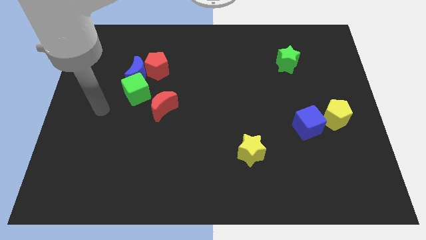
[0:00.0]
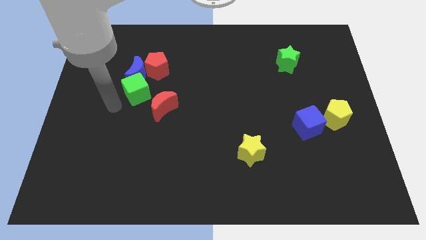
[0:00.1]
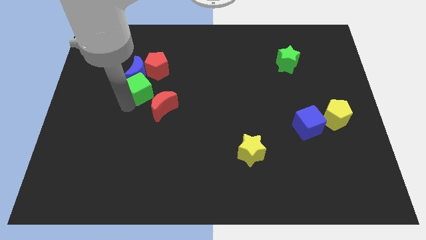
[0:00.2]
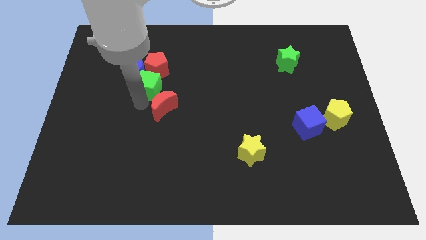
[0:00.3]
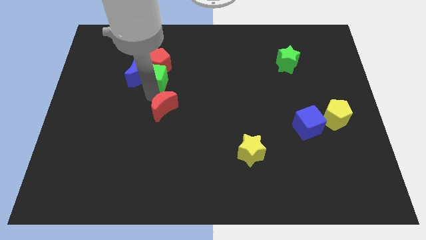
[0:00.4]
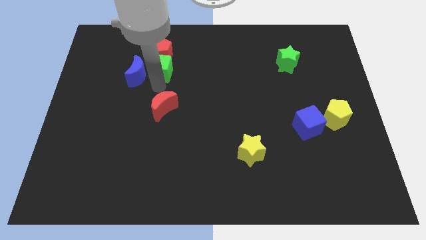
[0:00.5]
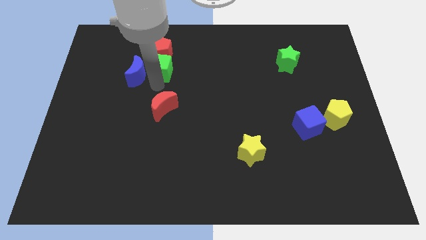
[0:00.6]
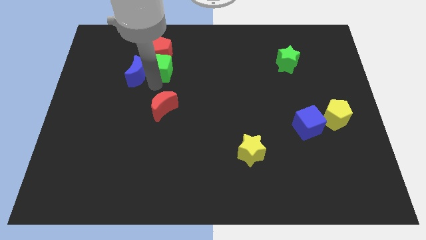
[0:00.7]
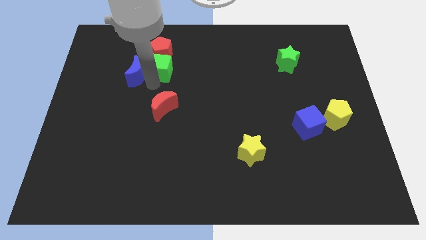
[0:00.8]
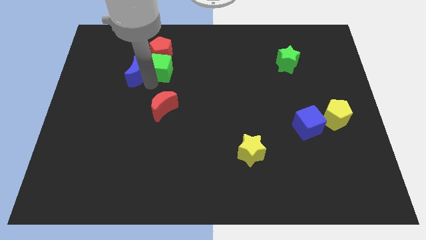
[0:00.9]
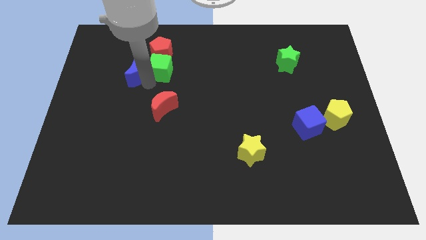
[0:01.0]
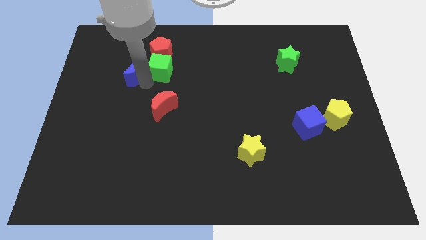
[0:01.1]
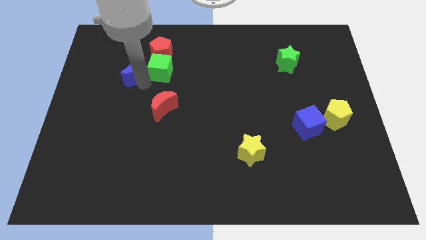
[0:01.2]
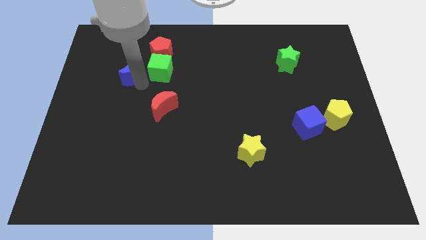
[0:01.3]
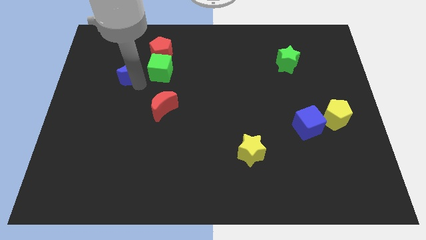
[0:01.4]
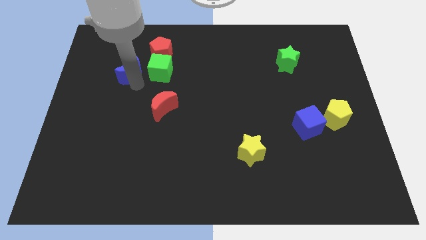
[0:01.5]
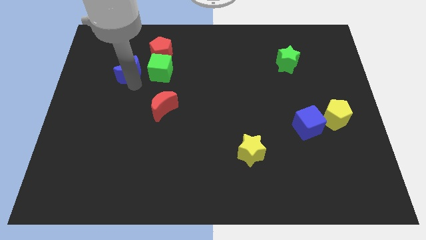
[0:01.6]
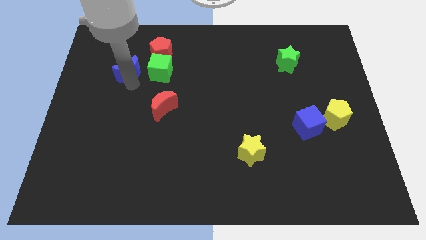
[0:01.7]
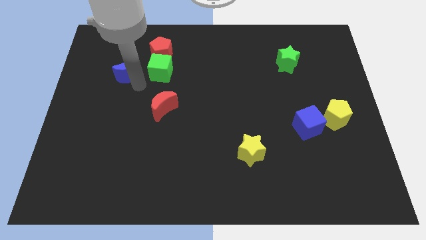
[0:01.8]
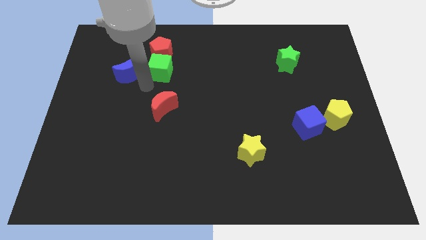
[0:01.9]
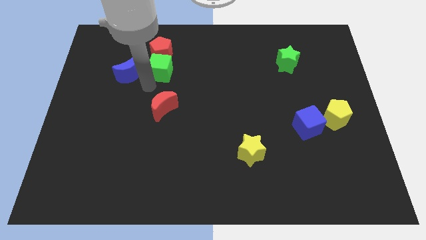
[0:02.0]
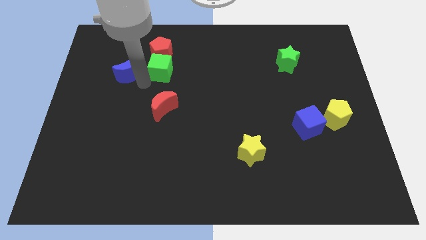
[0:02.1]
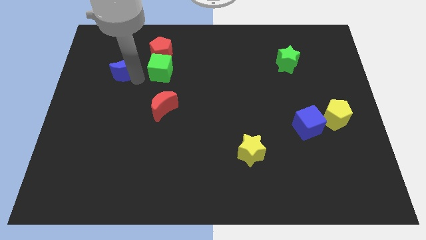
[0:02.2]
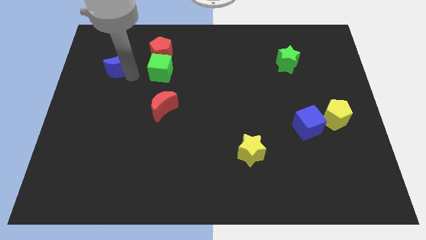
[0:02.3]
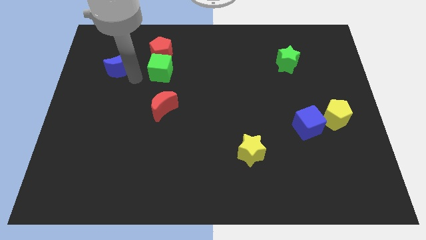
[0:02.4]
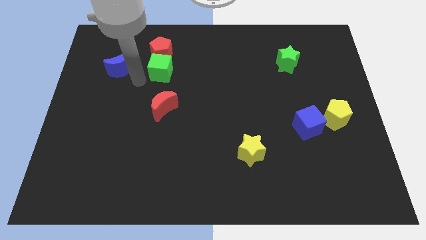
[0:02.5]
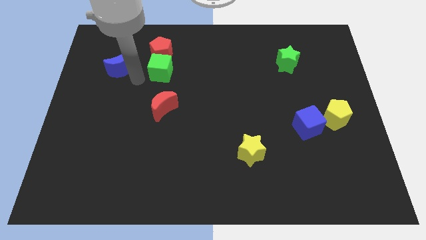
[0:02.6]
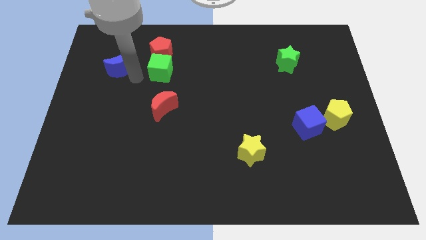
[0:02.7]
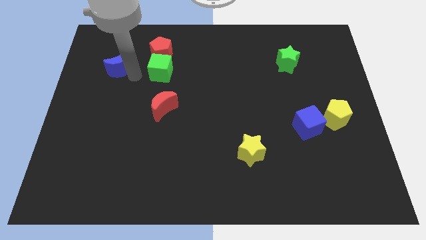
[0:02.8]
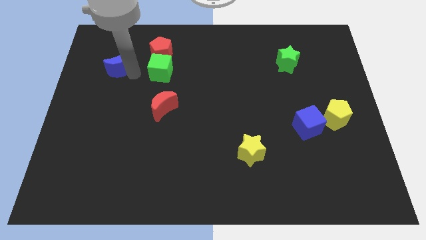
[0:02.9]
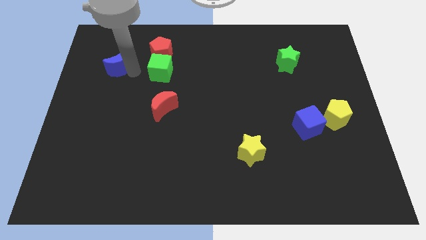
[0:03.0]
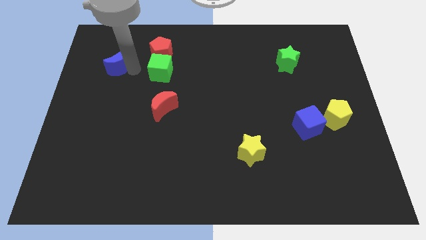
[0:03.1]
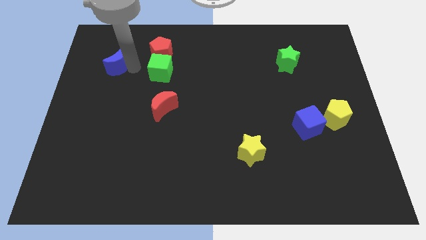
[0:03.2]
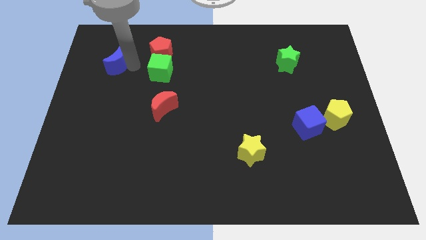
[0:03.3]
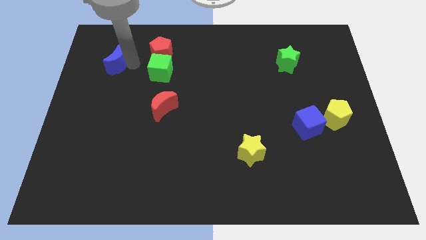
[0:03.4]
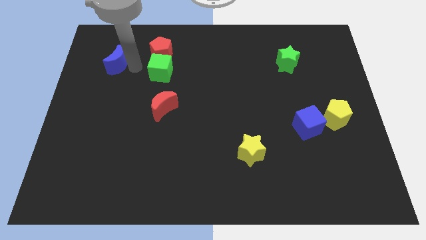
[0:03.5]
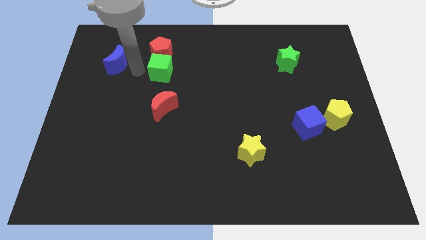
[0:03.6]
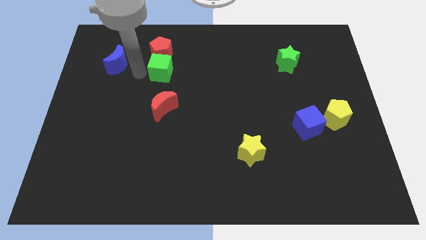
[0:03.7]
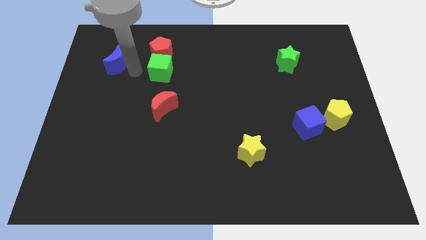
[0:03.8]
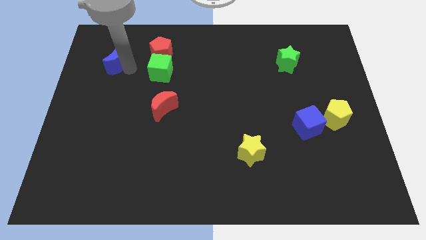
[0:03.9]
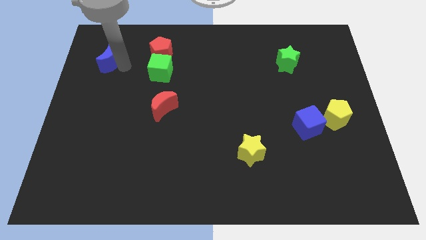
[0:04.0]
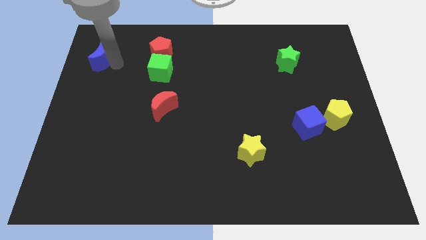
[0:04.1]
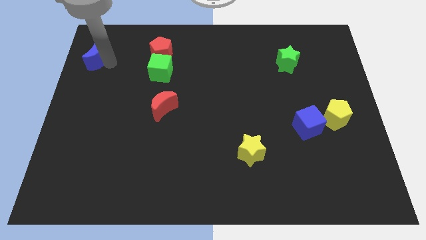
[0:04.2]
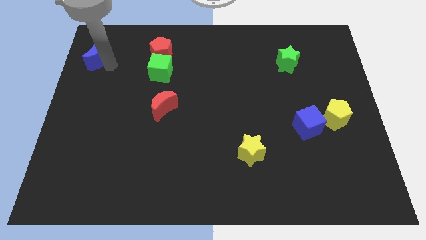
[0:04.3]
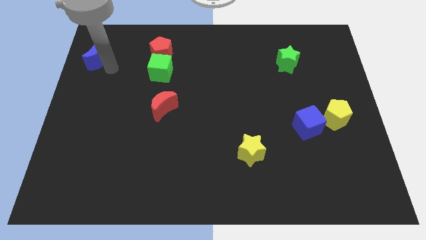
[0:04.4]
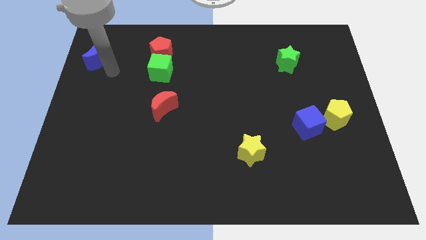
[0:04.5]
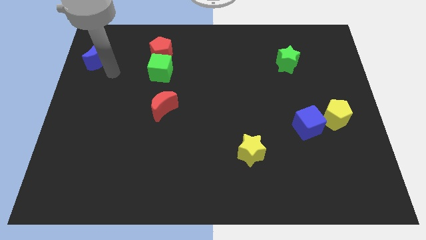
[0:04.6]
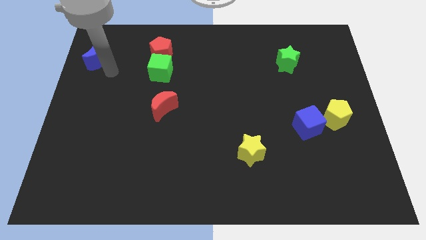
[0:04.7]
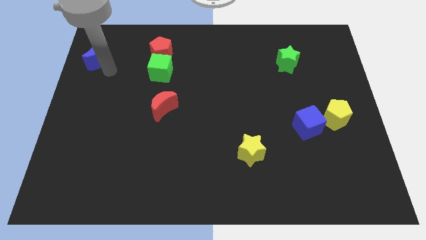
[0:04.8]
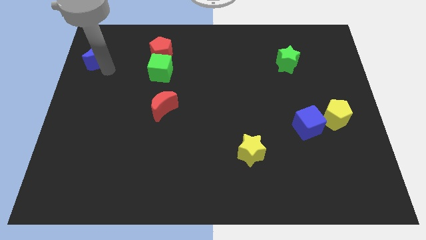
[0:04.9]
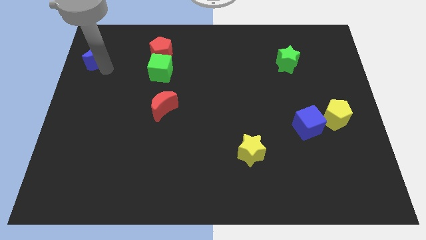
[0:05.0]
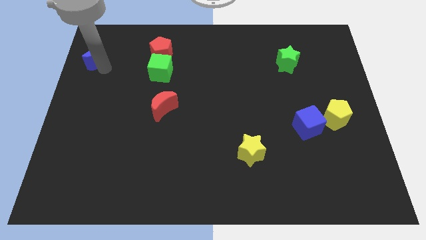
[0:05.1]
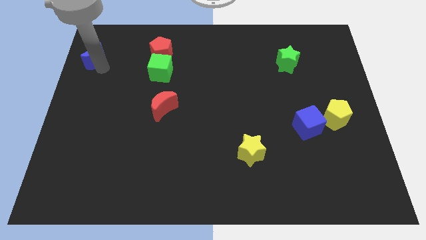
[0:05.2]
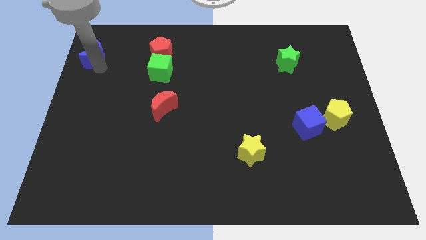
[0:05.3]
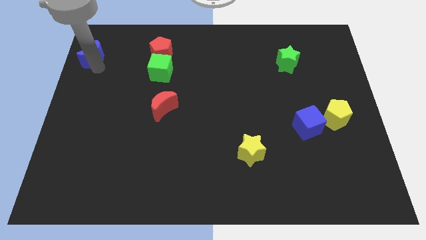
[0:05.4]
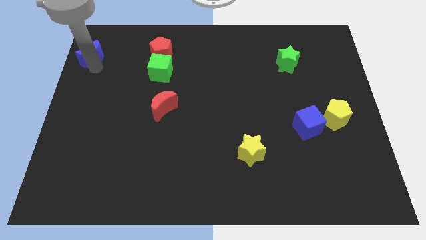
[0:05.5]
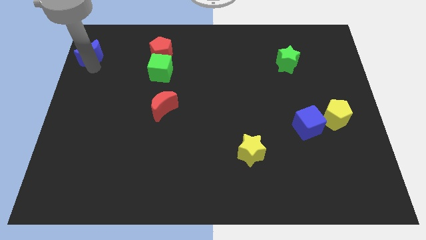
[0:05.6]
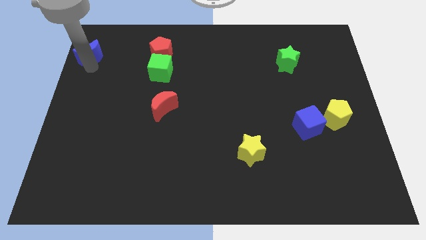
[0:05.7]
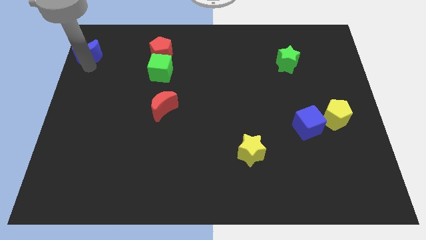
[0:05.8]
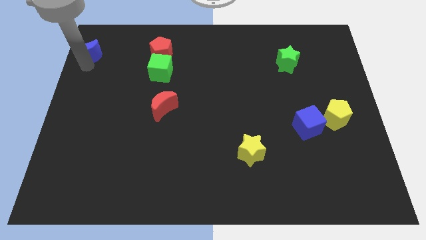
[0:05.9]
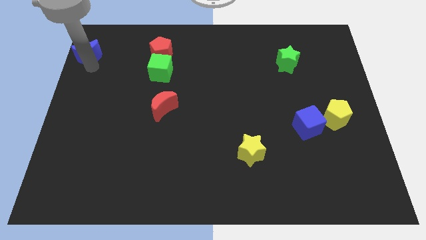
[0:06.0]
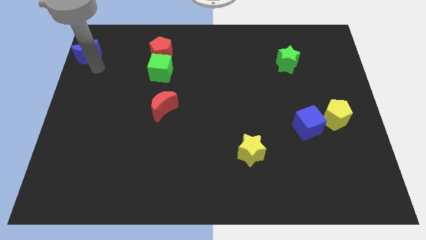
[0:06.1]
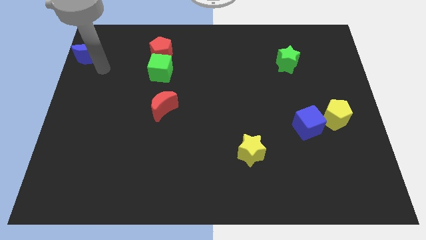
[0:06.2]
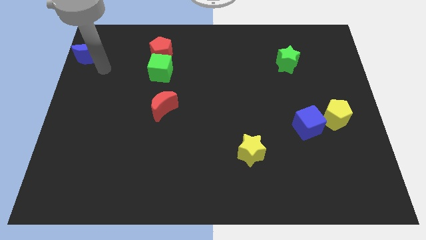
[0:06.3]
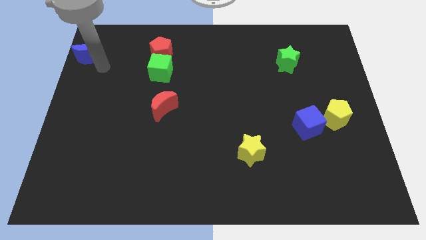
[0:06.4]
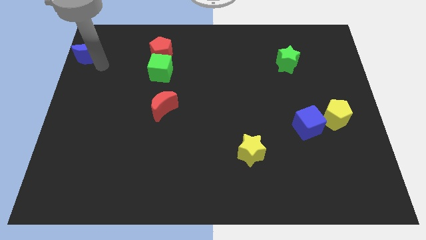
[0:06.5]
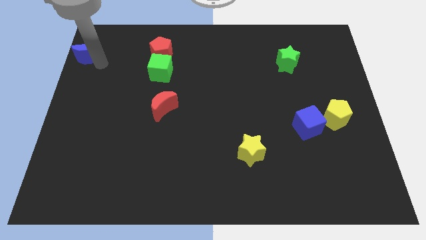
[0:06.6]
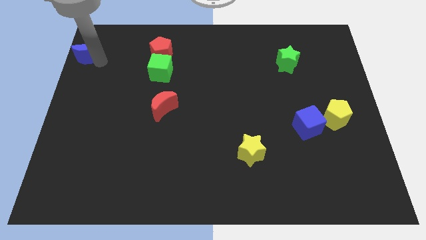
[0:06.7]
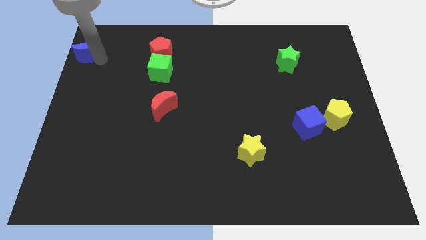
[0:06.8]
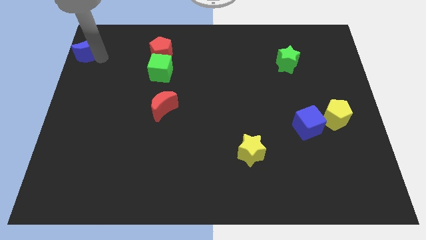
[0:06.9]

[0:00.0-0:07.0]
push the blue moon to the top left corner

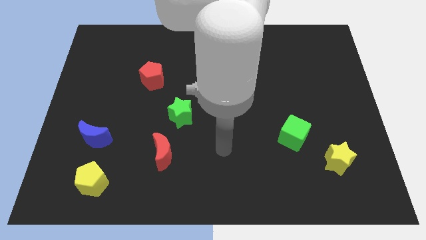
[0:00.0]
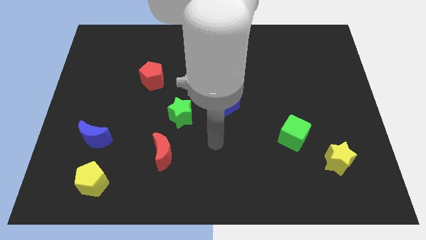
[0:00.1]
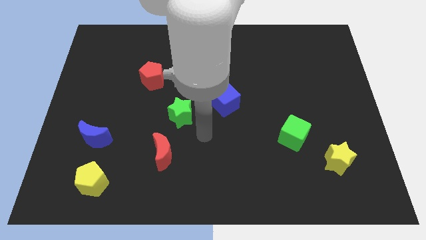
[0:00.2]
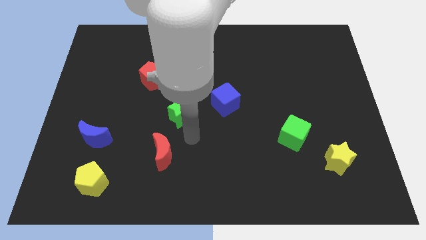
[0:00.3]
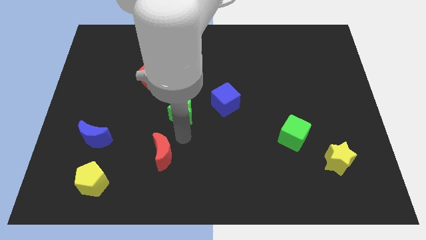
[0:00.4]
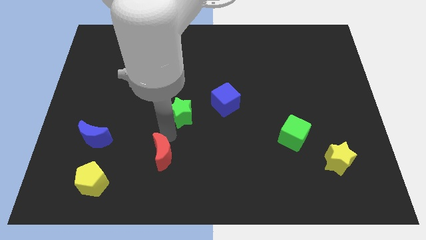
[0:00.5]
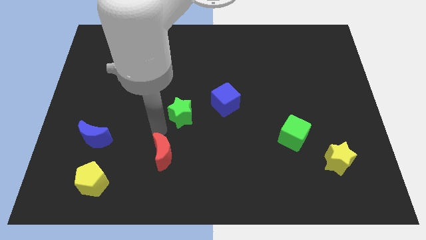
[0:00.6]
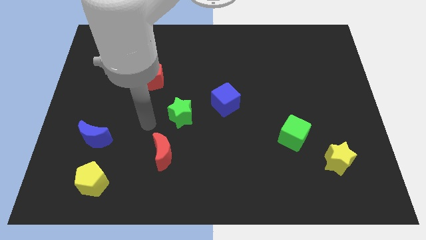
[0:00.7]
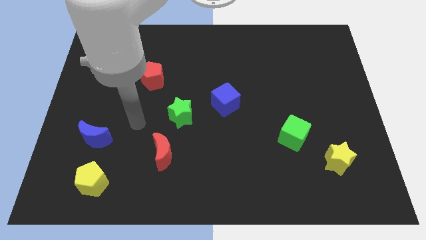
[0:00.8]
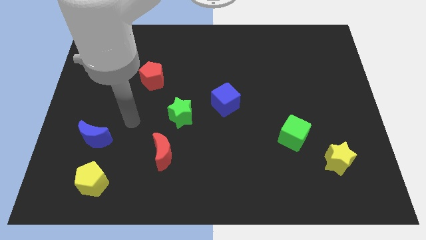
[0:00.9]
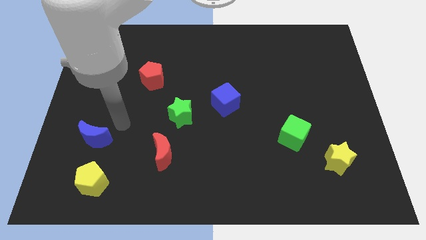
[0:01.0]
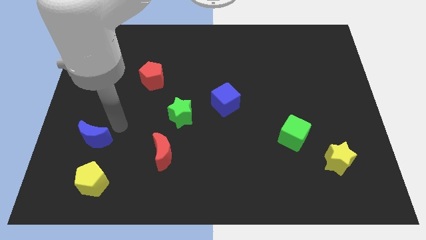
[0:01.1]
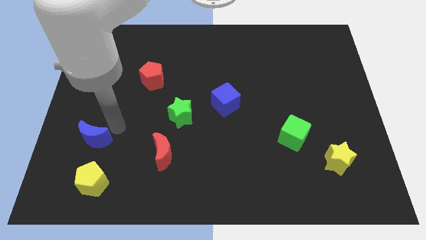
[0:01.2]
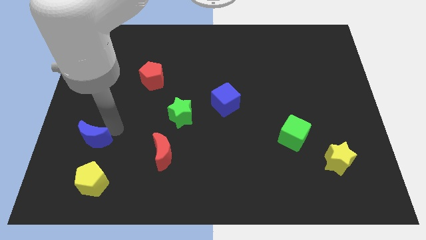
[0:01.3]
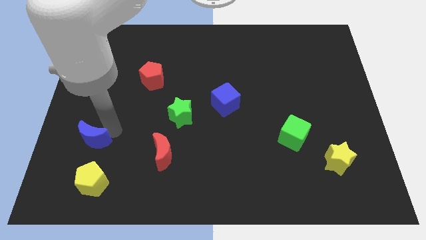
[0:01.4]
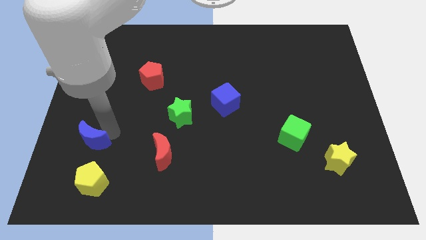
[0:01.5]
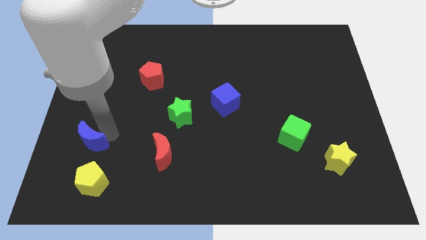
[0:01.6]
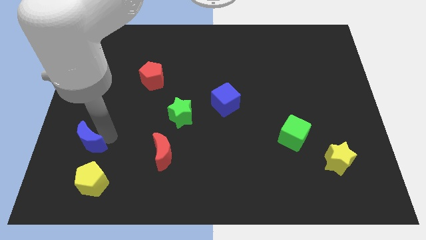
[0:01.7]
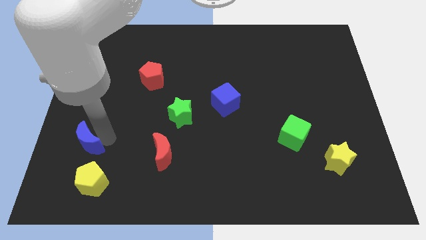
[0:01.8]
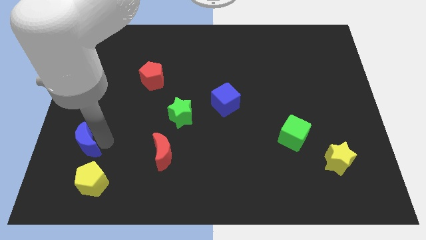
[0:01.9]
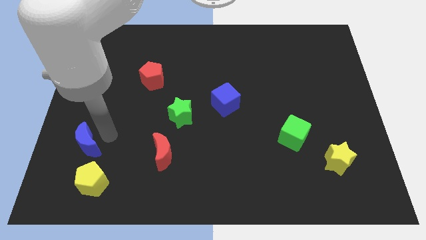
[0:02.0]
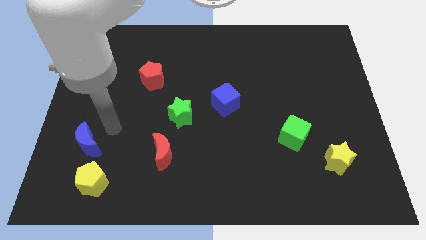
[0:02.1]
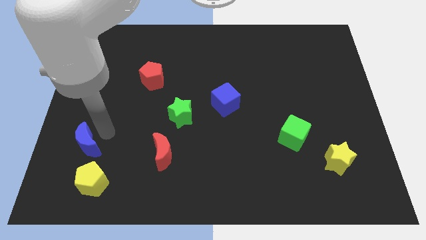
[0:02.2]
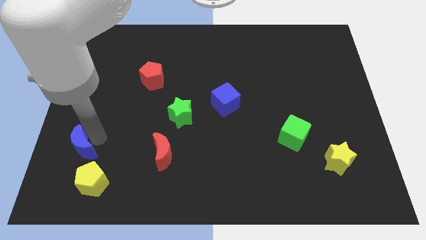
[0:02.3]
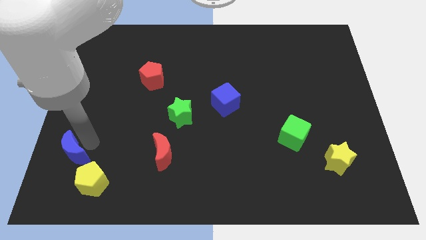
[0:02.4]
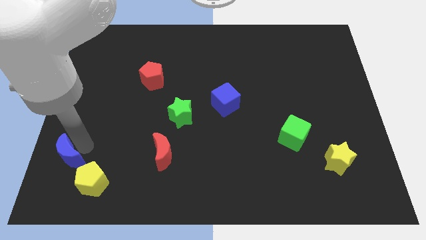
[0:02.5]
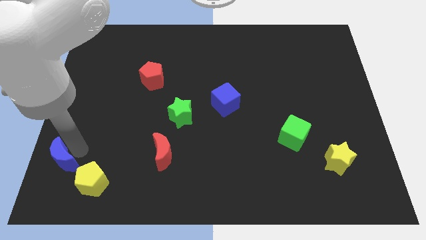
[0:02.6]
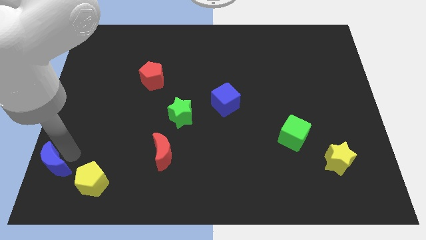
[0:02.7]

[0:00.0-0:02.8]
push the blue moon to the bottom left corner
